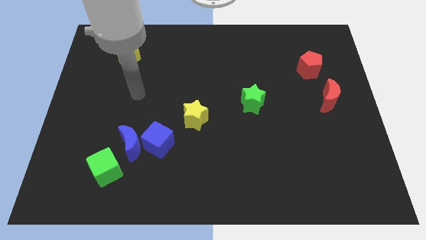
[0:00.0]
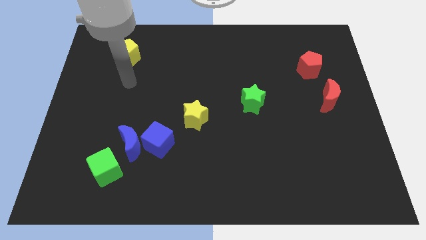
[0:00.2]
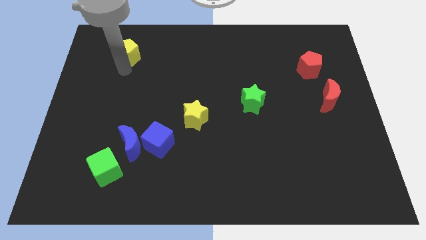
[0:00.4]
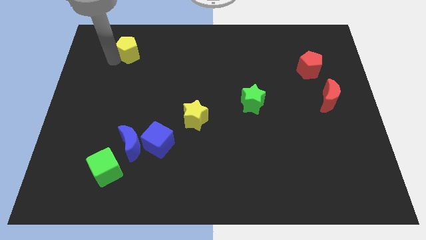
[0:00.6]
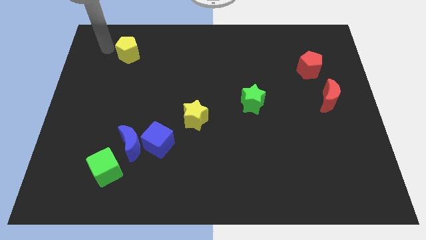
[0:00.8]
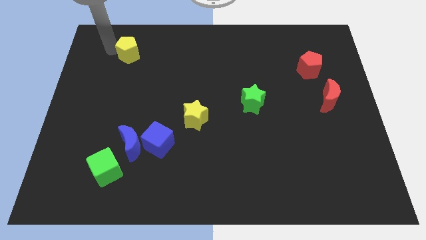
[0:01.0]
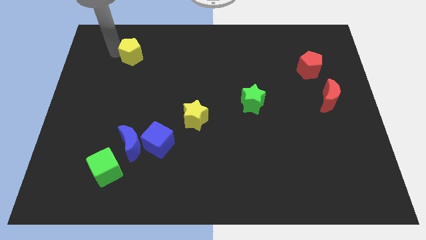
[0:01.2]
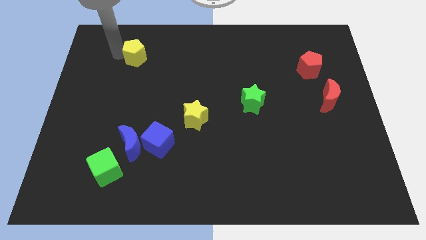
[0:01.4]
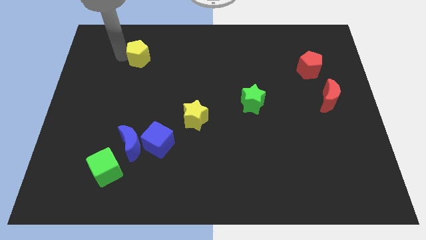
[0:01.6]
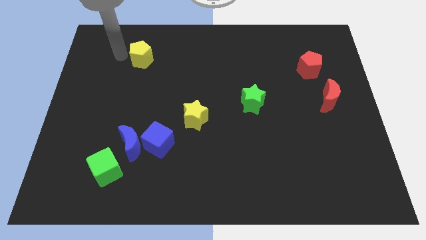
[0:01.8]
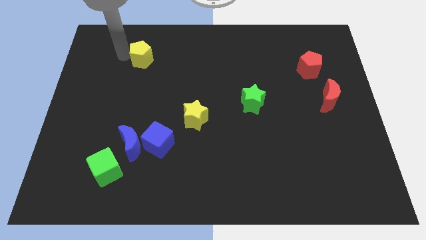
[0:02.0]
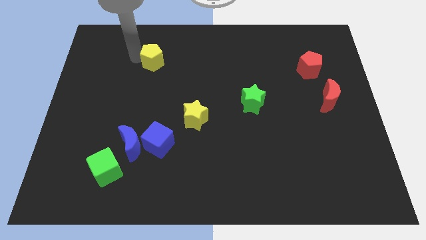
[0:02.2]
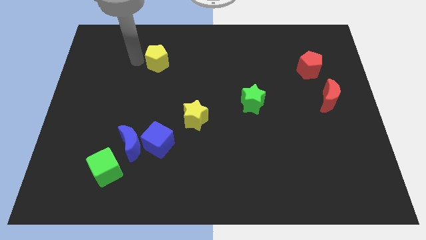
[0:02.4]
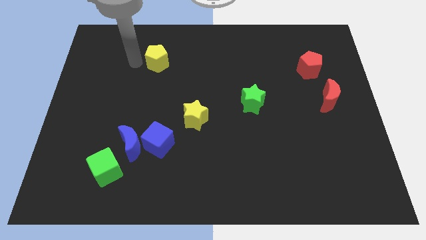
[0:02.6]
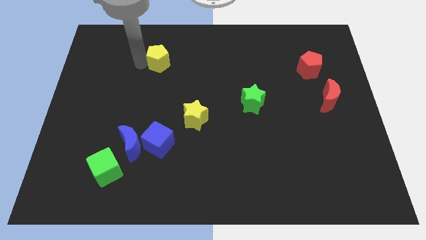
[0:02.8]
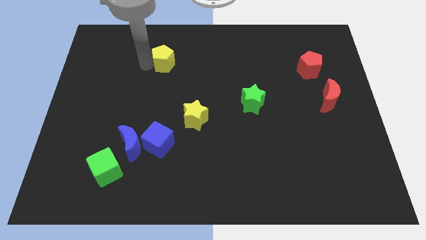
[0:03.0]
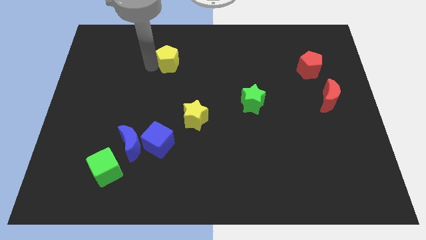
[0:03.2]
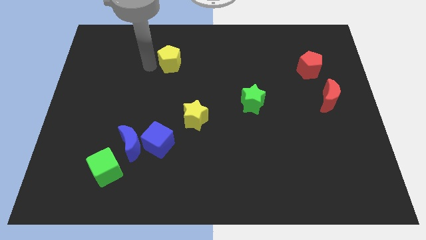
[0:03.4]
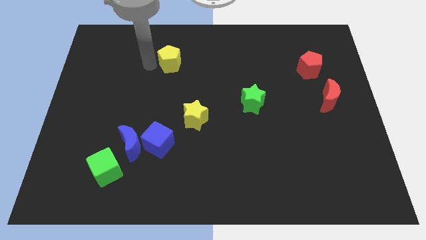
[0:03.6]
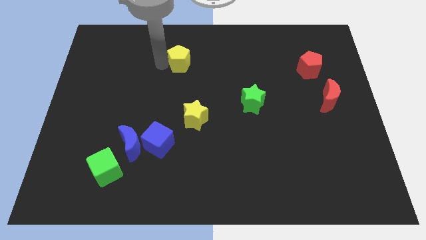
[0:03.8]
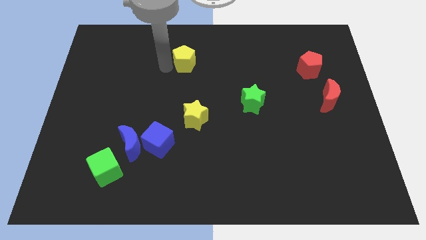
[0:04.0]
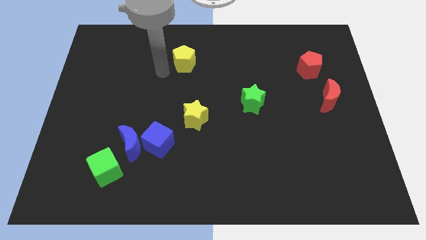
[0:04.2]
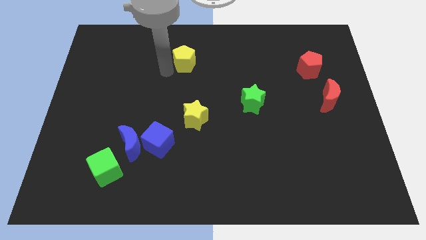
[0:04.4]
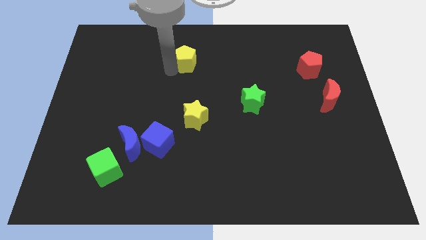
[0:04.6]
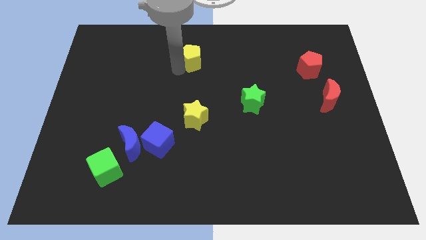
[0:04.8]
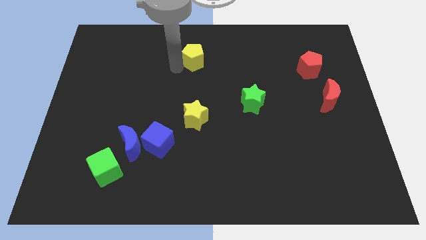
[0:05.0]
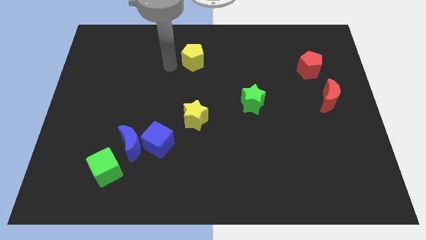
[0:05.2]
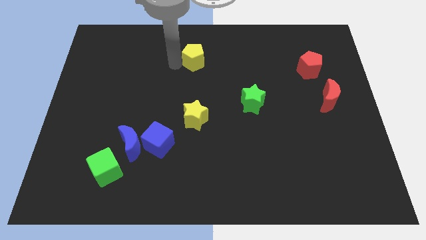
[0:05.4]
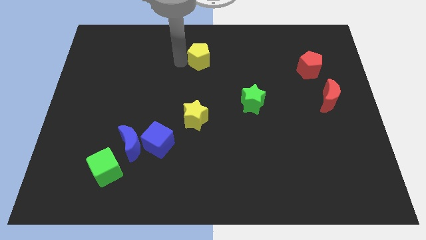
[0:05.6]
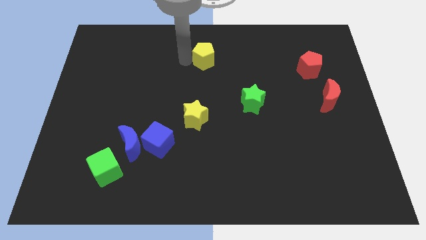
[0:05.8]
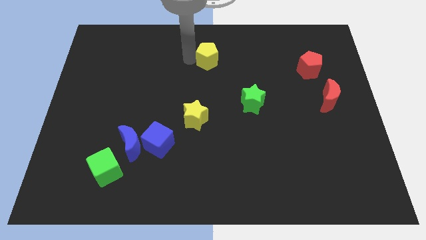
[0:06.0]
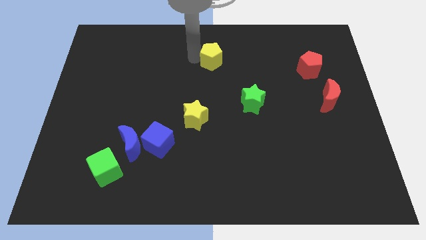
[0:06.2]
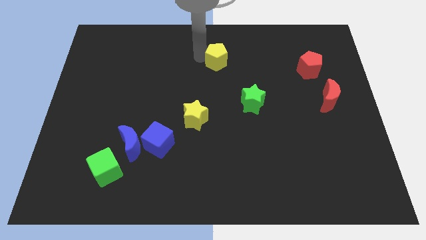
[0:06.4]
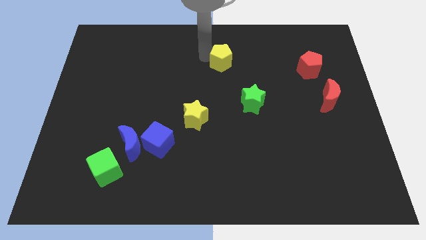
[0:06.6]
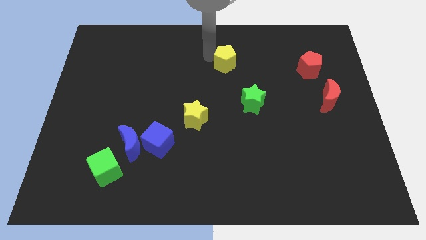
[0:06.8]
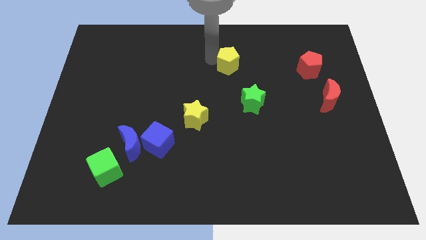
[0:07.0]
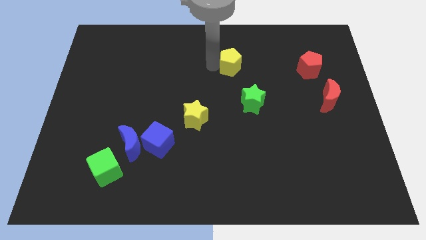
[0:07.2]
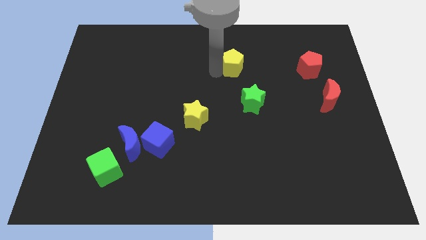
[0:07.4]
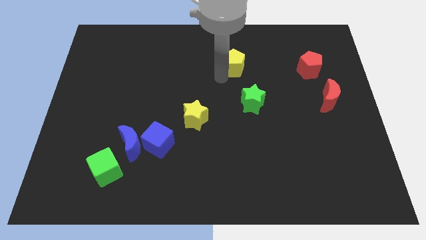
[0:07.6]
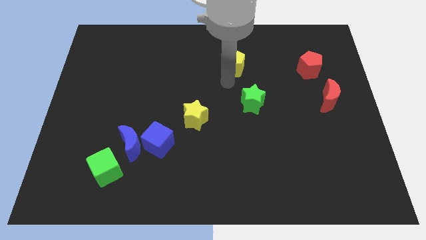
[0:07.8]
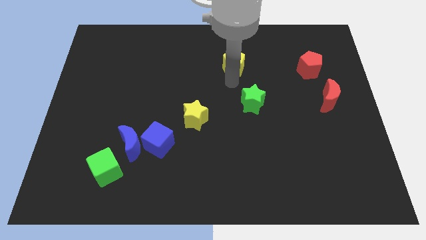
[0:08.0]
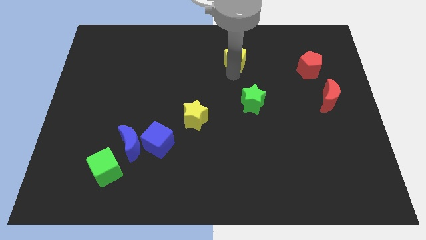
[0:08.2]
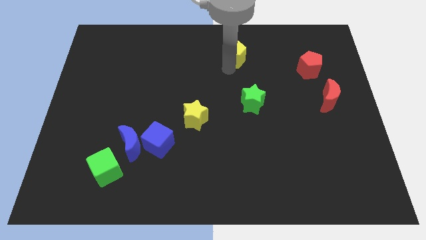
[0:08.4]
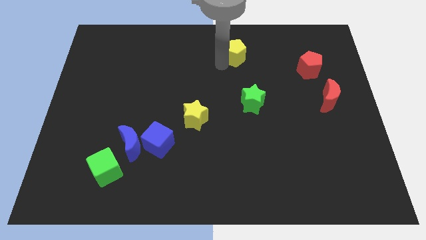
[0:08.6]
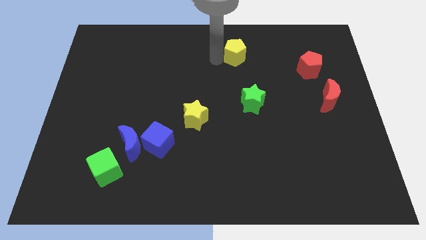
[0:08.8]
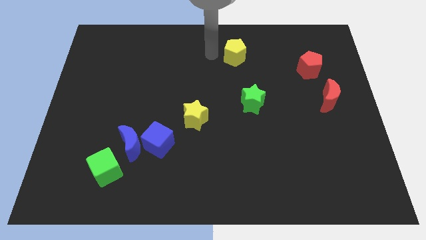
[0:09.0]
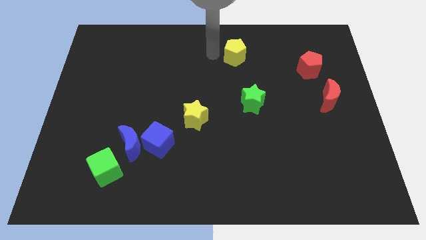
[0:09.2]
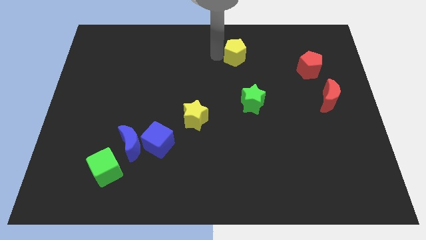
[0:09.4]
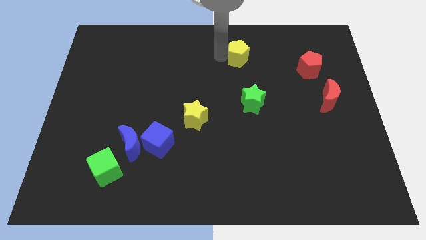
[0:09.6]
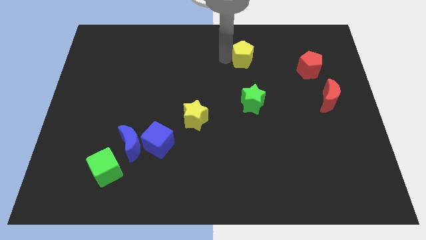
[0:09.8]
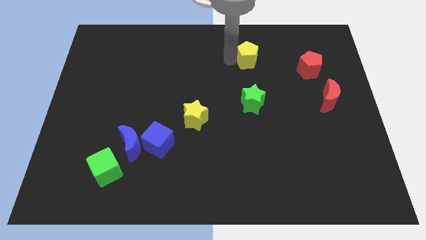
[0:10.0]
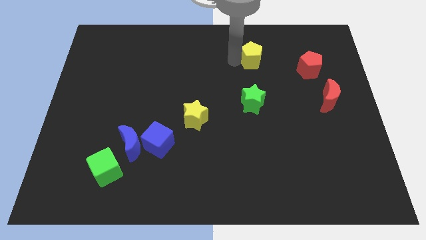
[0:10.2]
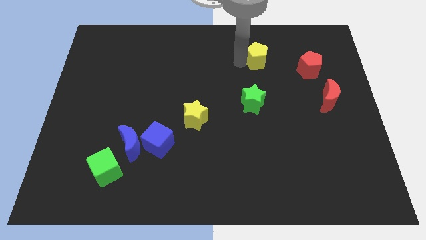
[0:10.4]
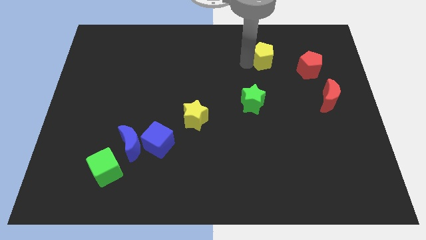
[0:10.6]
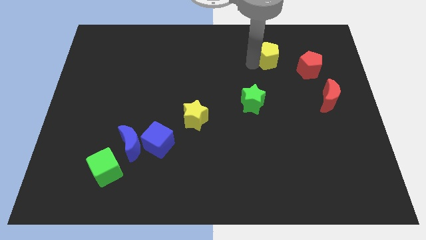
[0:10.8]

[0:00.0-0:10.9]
slide the yellow pentagon to the top left of the red pentagon

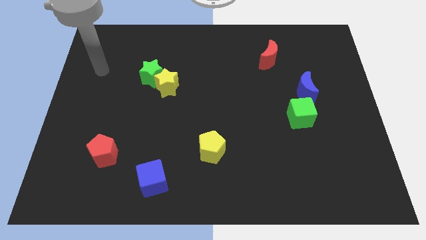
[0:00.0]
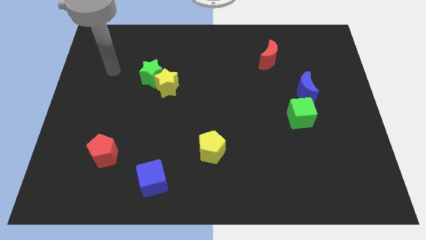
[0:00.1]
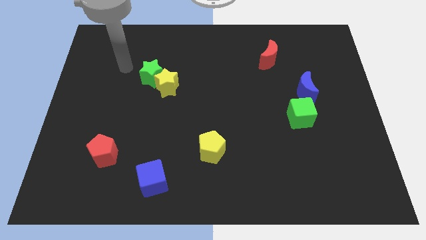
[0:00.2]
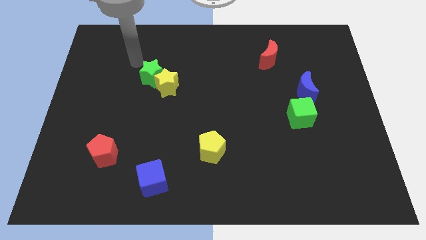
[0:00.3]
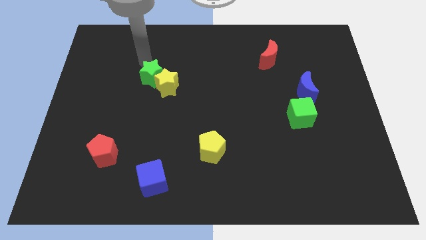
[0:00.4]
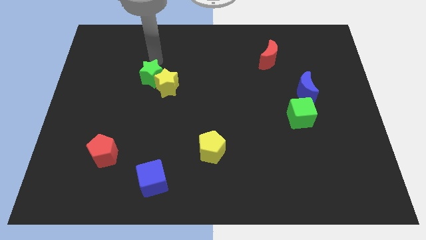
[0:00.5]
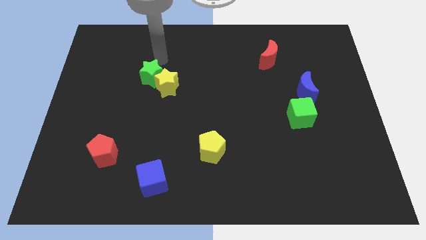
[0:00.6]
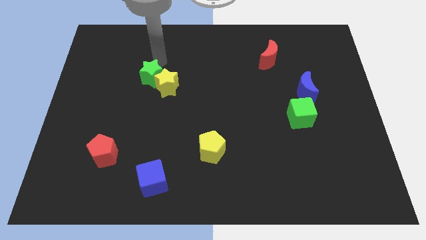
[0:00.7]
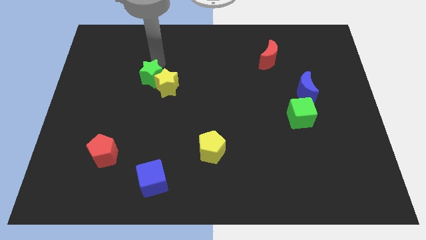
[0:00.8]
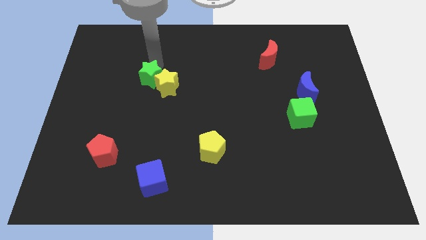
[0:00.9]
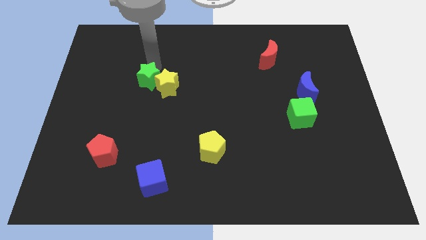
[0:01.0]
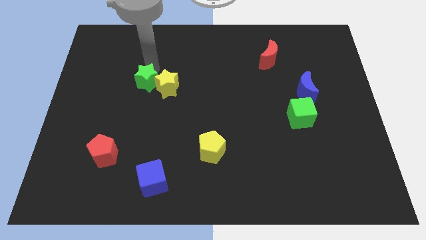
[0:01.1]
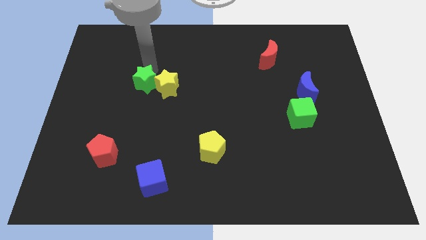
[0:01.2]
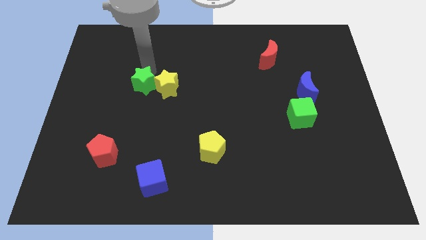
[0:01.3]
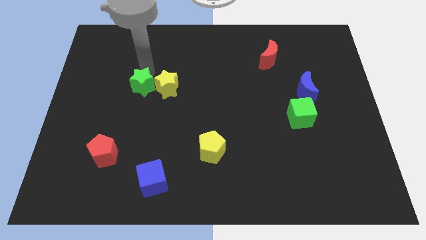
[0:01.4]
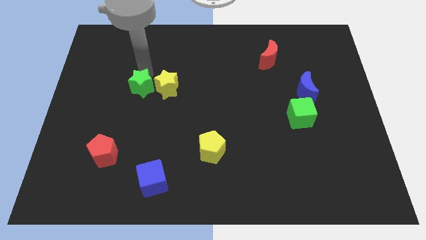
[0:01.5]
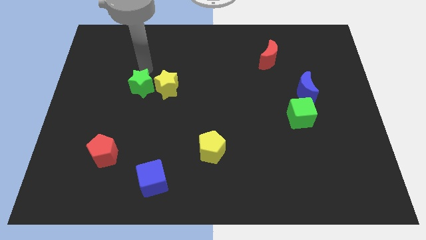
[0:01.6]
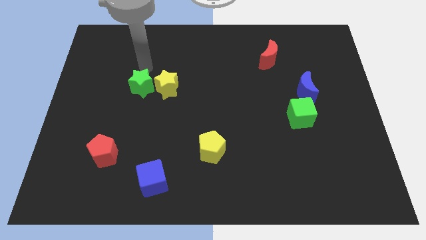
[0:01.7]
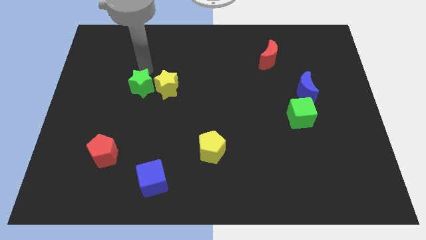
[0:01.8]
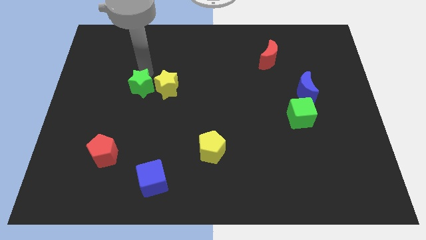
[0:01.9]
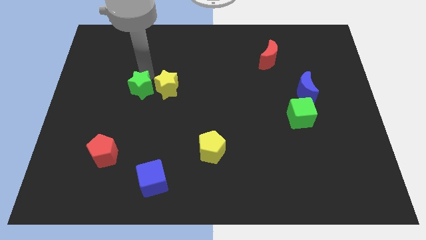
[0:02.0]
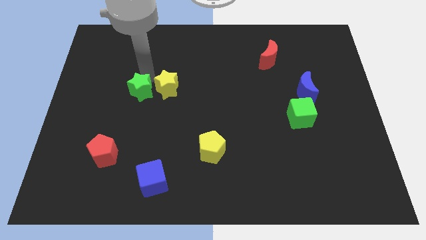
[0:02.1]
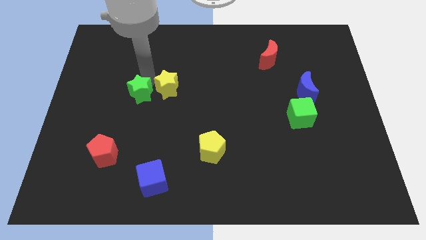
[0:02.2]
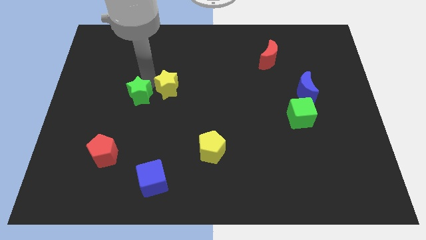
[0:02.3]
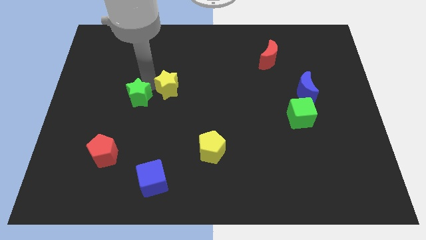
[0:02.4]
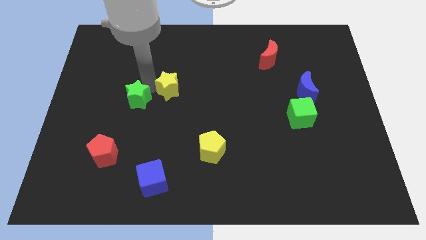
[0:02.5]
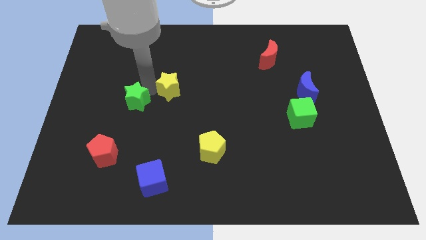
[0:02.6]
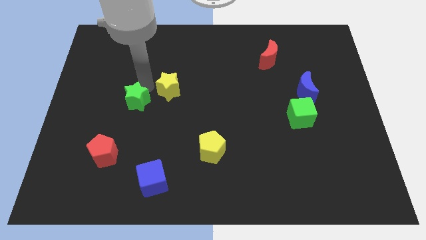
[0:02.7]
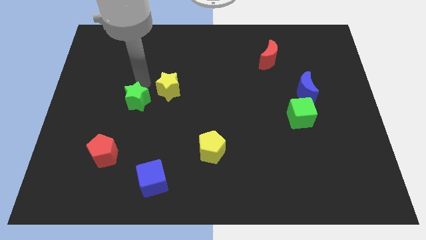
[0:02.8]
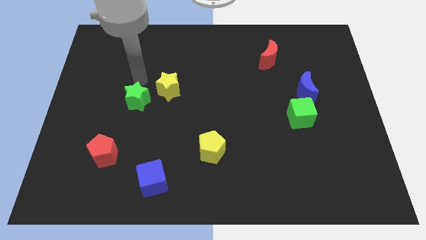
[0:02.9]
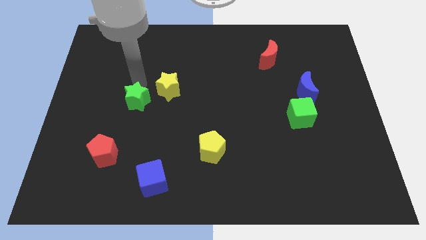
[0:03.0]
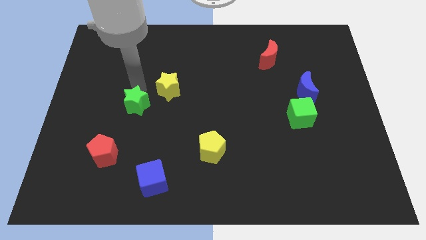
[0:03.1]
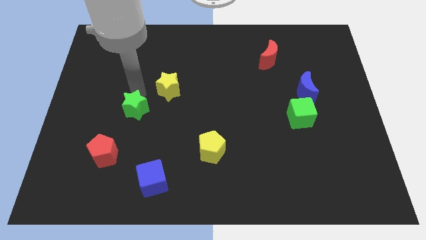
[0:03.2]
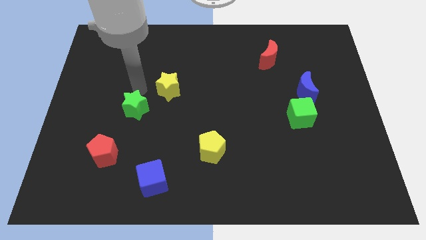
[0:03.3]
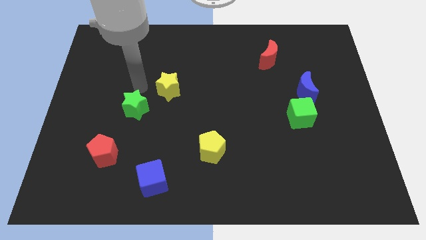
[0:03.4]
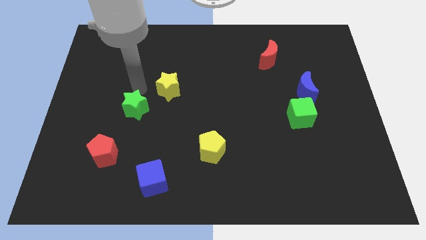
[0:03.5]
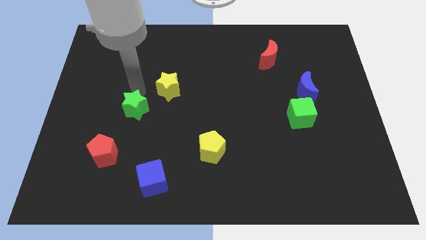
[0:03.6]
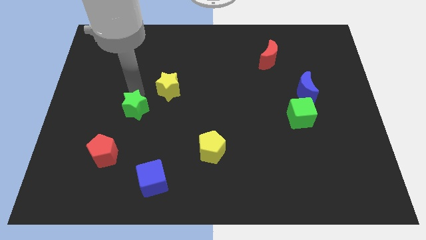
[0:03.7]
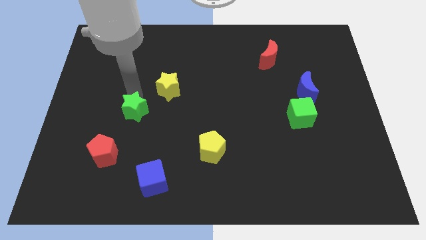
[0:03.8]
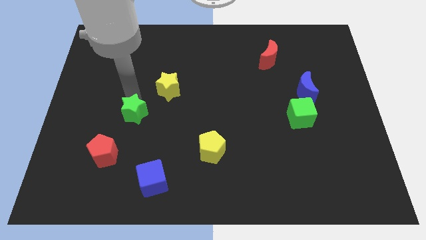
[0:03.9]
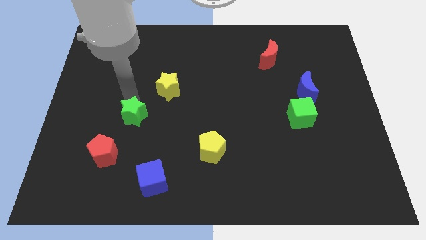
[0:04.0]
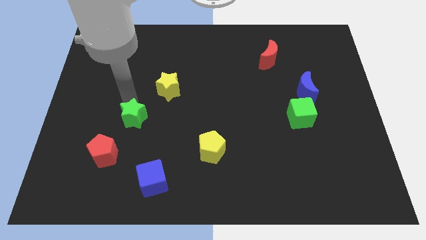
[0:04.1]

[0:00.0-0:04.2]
slide the green star diagonally up and to the right of the red pentagon
